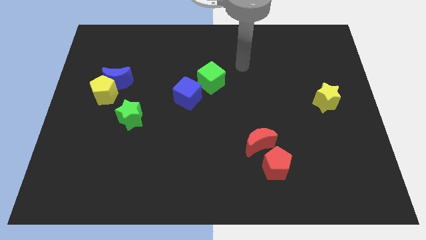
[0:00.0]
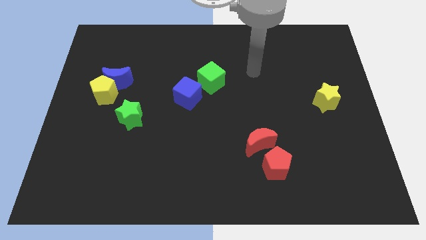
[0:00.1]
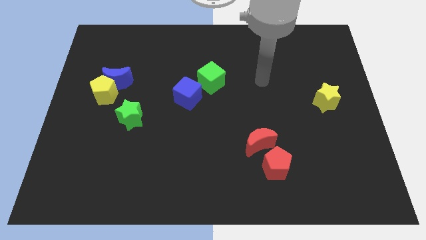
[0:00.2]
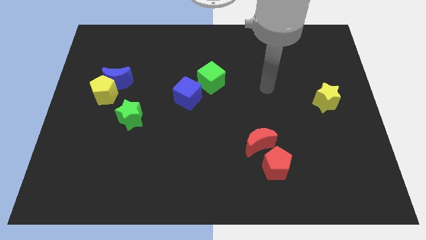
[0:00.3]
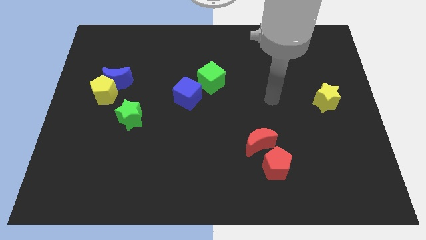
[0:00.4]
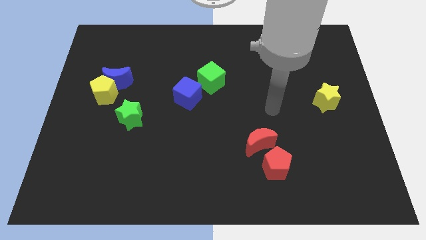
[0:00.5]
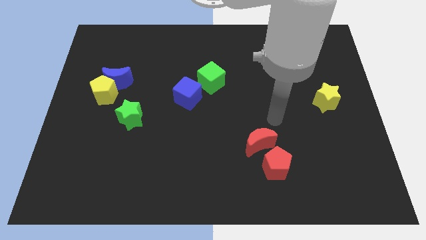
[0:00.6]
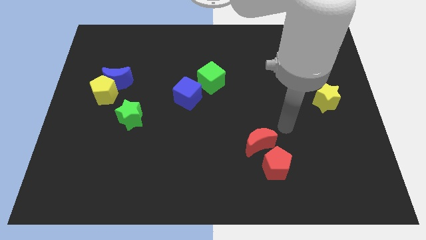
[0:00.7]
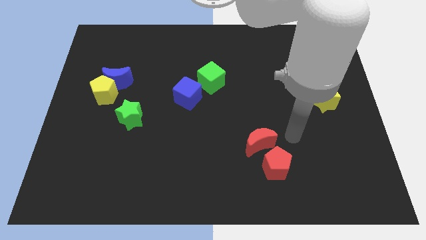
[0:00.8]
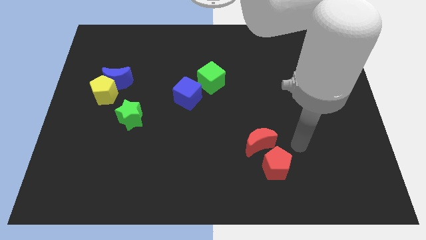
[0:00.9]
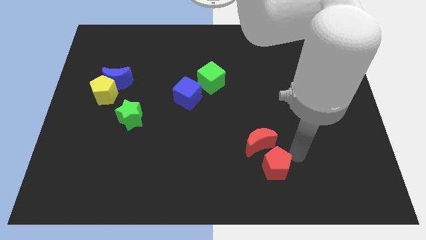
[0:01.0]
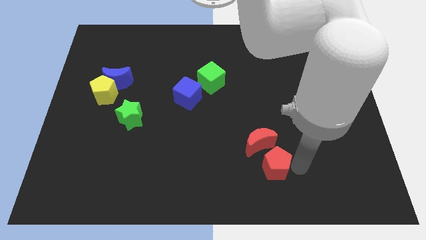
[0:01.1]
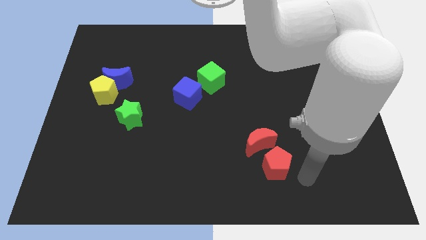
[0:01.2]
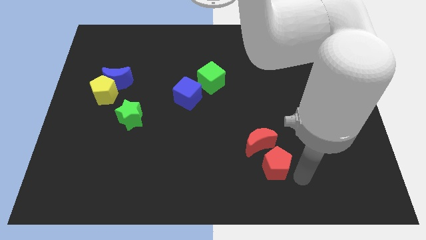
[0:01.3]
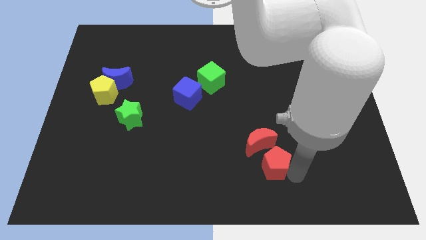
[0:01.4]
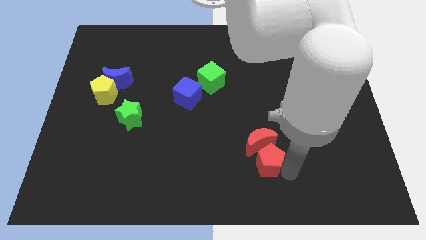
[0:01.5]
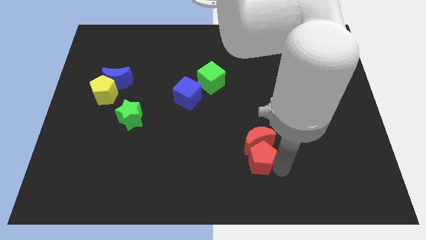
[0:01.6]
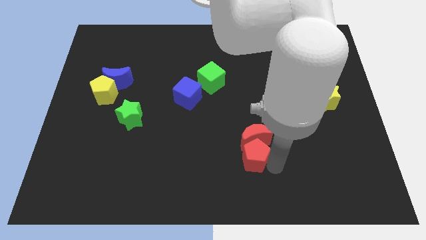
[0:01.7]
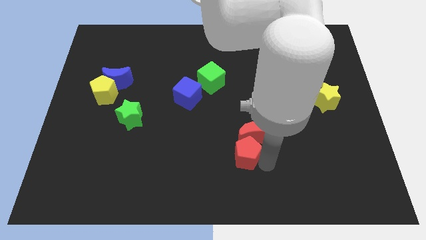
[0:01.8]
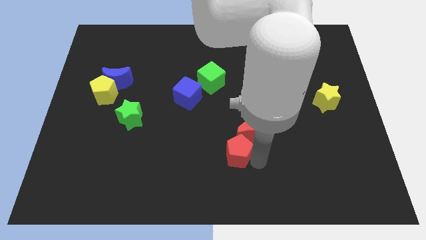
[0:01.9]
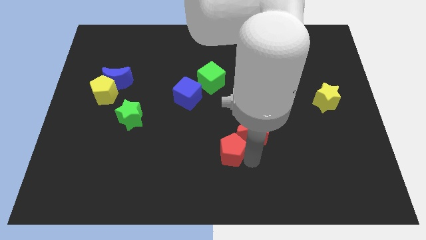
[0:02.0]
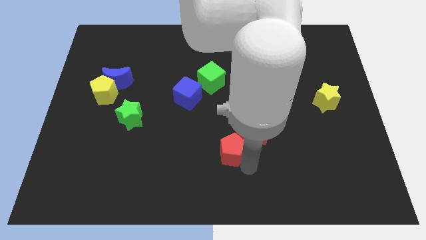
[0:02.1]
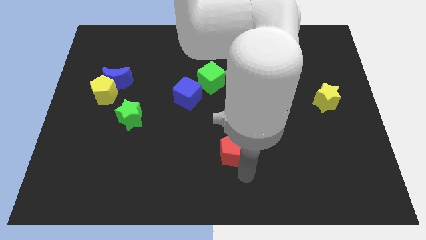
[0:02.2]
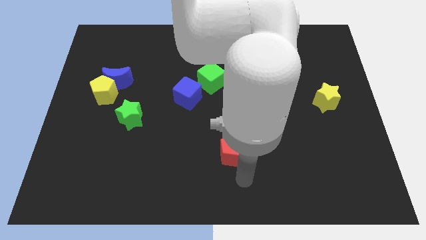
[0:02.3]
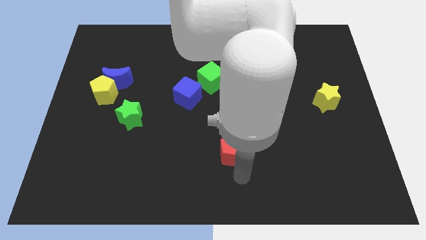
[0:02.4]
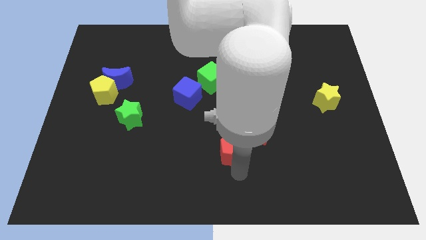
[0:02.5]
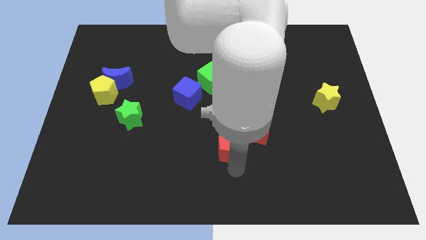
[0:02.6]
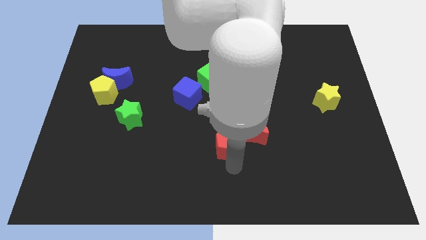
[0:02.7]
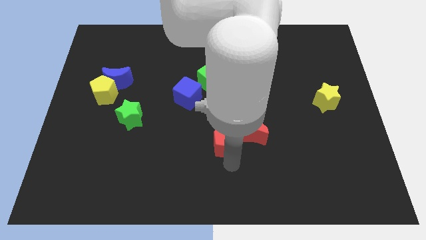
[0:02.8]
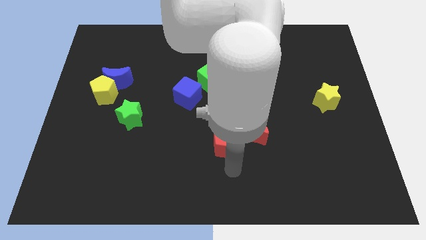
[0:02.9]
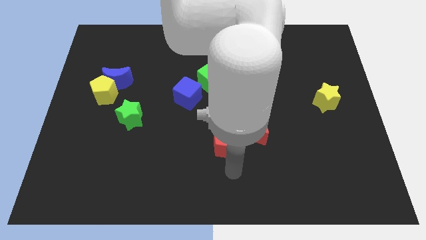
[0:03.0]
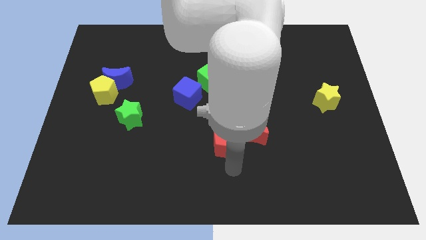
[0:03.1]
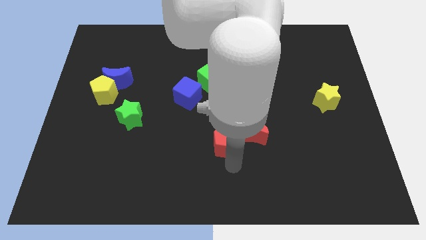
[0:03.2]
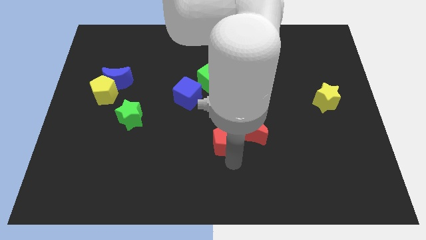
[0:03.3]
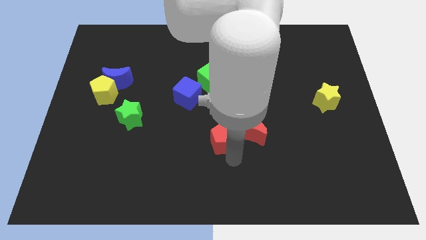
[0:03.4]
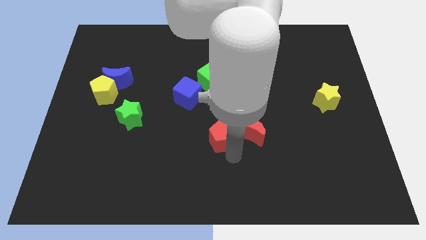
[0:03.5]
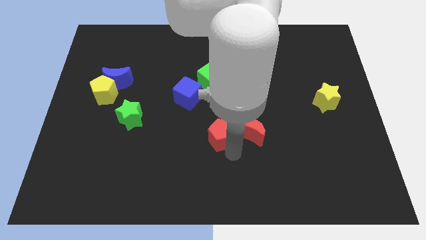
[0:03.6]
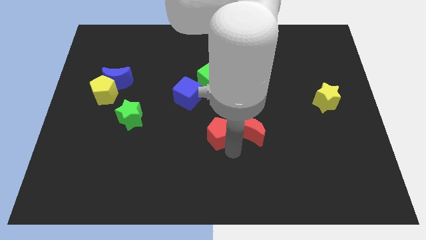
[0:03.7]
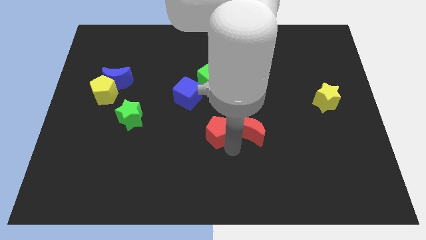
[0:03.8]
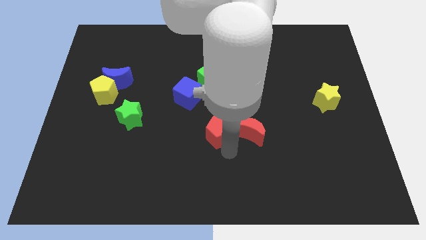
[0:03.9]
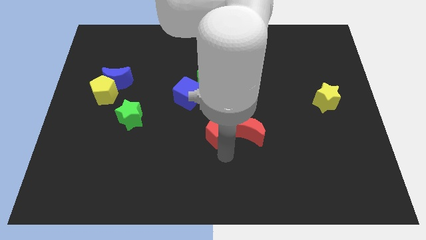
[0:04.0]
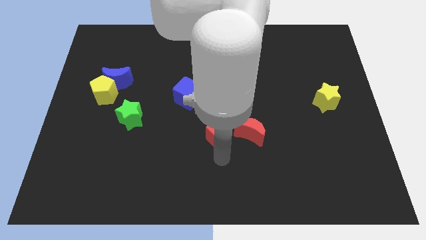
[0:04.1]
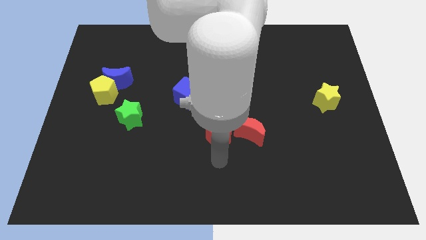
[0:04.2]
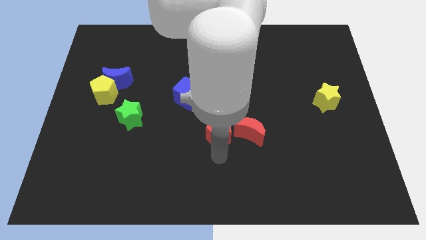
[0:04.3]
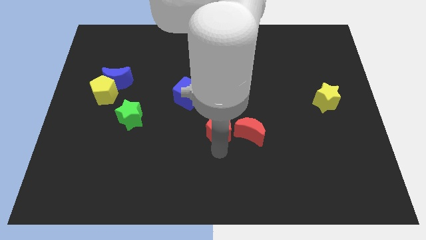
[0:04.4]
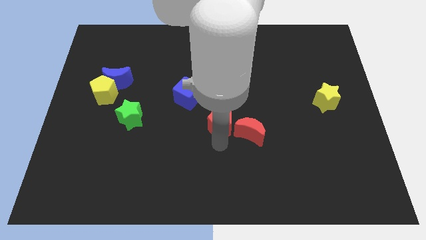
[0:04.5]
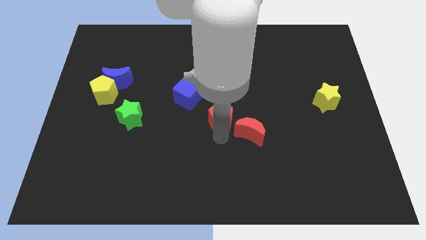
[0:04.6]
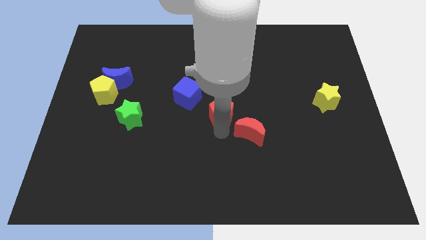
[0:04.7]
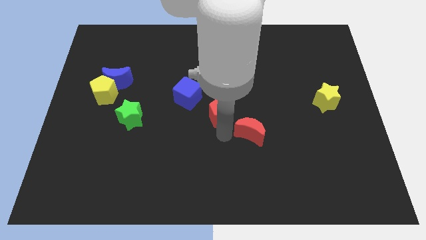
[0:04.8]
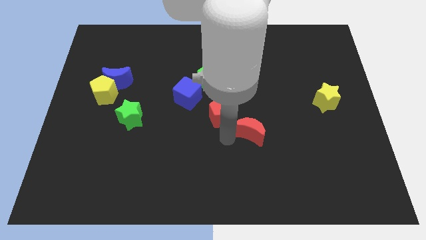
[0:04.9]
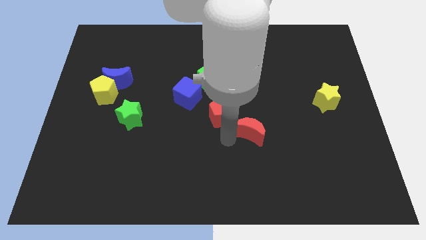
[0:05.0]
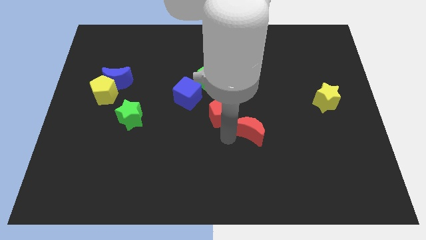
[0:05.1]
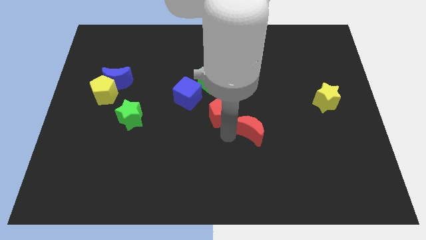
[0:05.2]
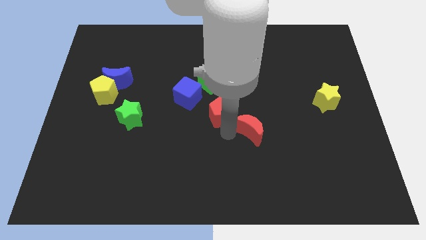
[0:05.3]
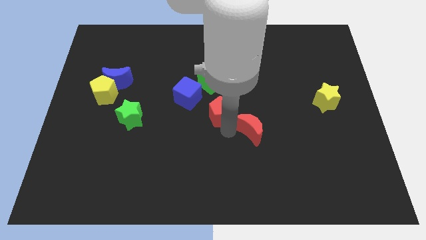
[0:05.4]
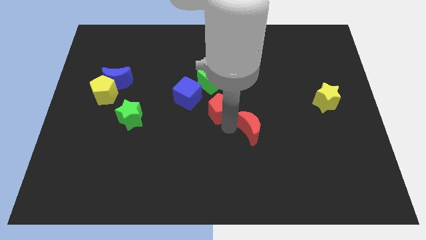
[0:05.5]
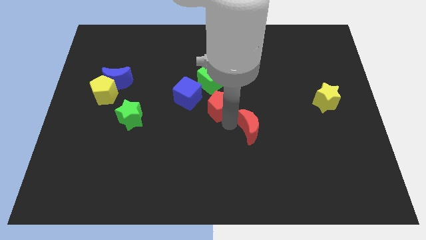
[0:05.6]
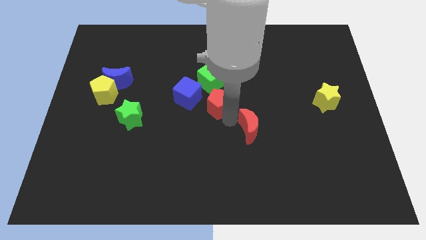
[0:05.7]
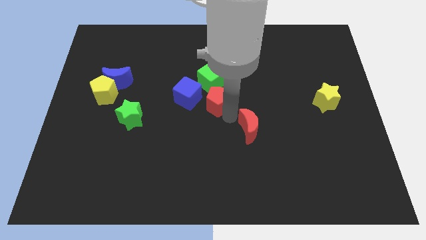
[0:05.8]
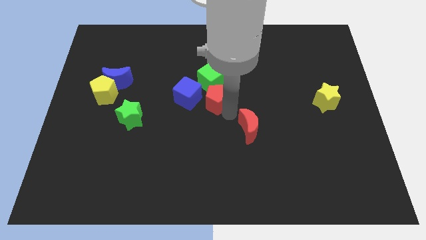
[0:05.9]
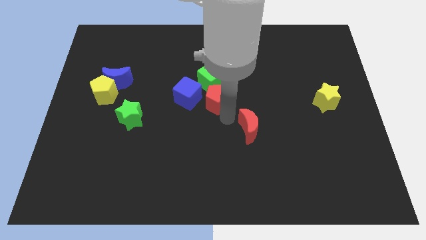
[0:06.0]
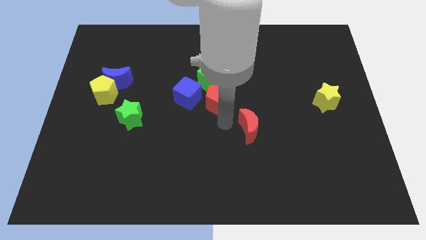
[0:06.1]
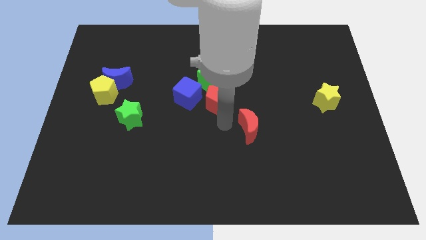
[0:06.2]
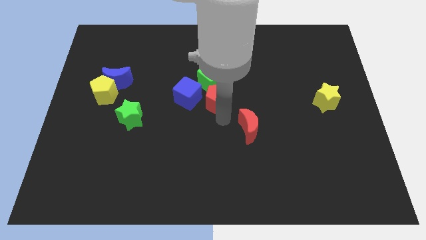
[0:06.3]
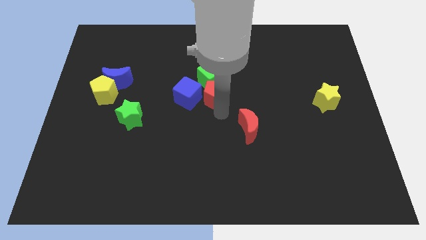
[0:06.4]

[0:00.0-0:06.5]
push the red pentagon close to the green cube

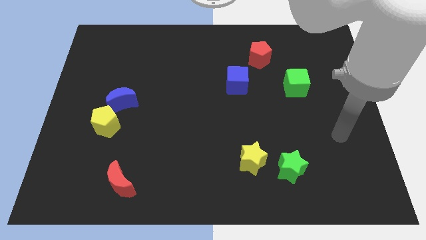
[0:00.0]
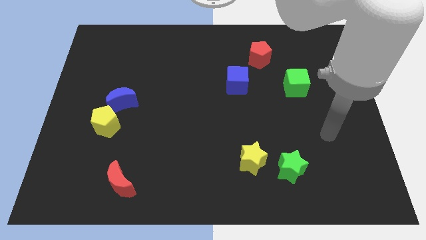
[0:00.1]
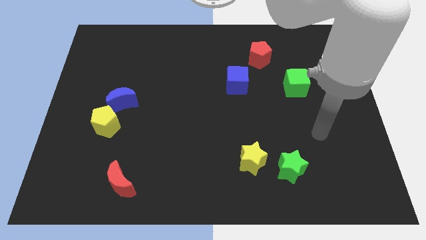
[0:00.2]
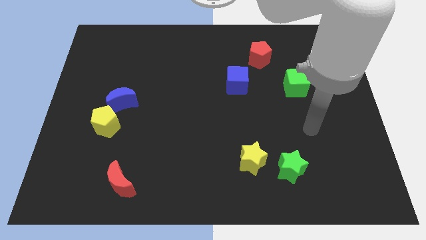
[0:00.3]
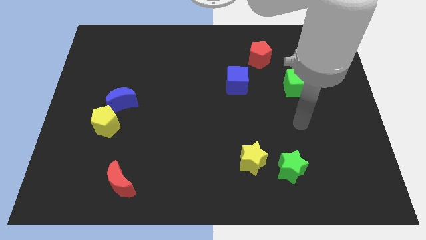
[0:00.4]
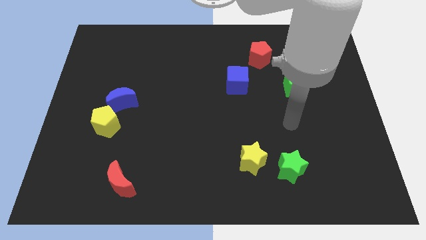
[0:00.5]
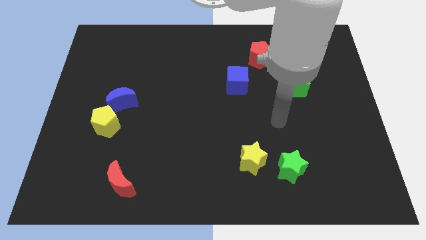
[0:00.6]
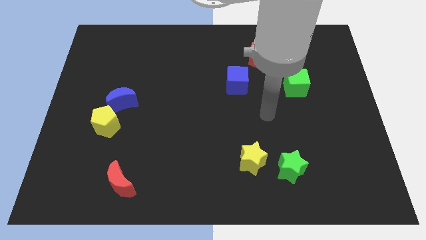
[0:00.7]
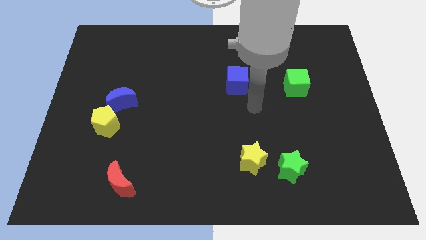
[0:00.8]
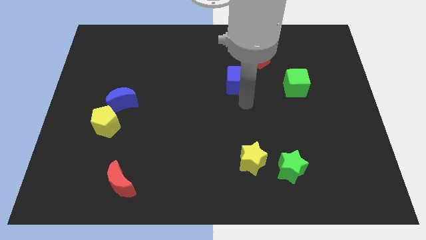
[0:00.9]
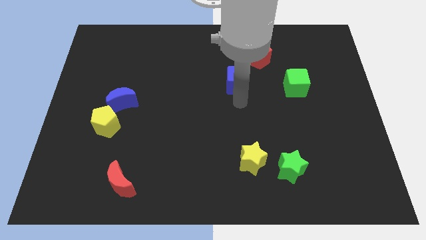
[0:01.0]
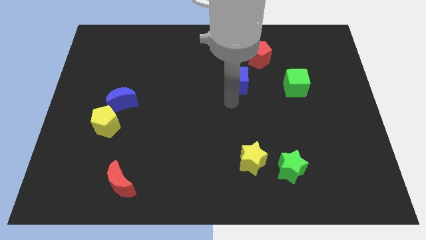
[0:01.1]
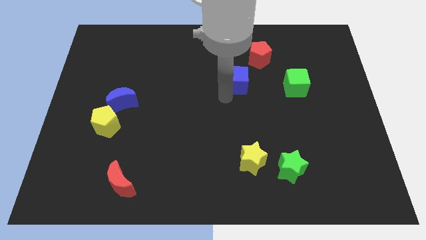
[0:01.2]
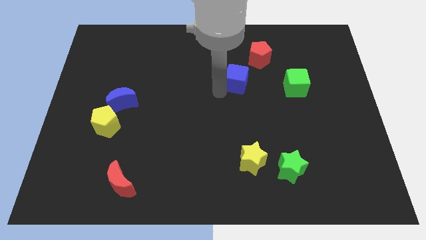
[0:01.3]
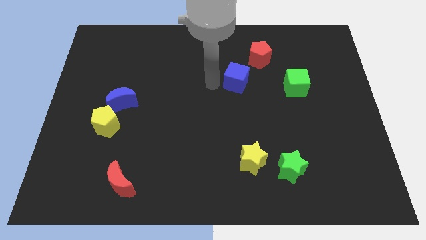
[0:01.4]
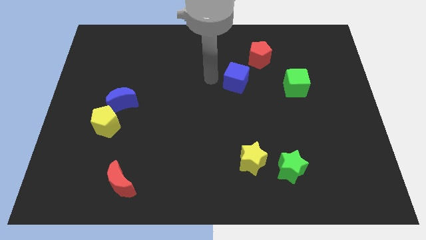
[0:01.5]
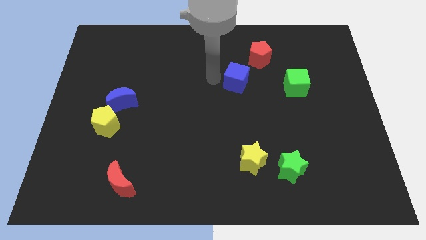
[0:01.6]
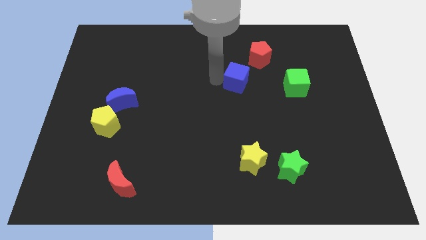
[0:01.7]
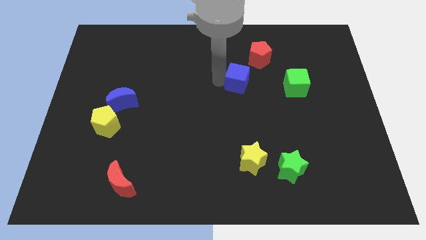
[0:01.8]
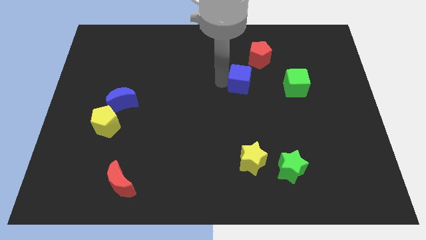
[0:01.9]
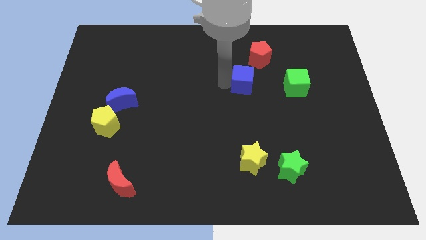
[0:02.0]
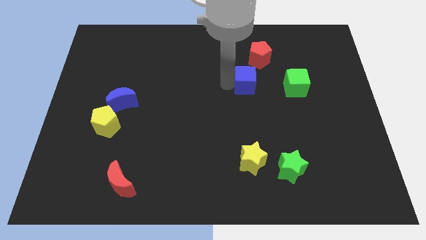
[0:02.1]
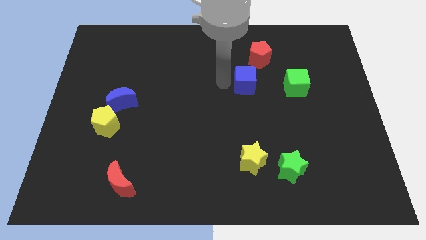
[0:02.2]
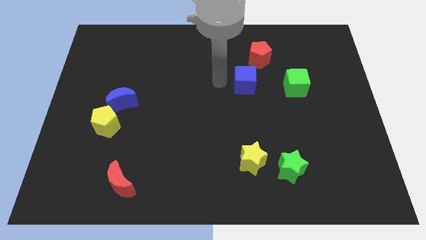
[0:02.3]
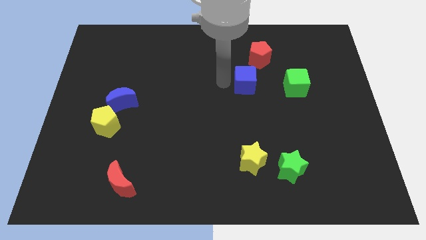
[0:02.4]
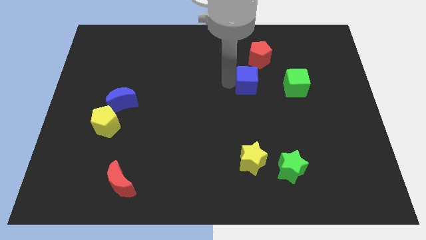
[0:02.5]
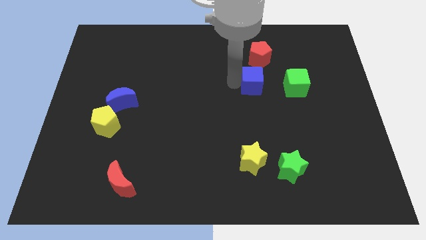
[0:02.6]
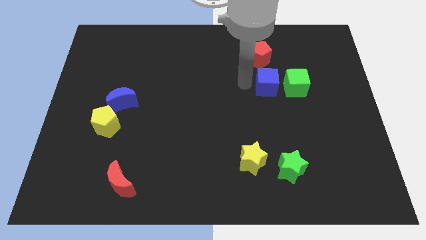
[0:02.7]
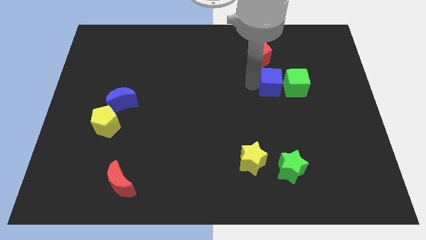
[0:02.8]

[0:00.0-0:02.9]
put the blue cube towards the green cube
